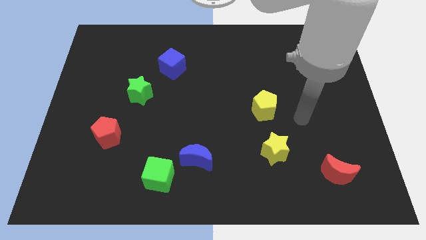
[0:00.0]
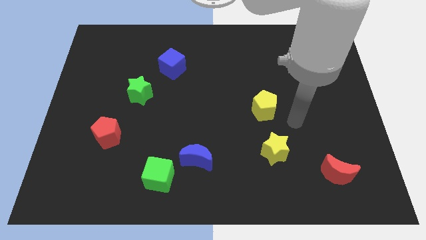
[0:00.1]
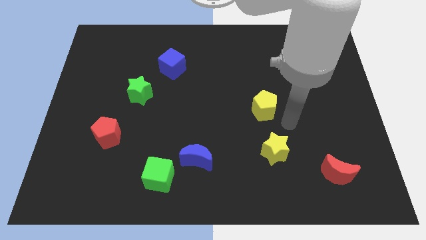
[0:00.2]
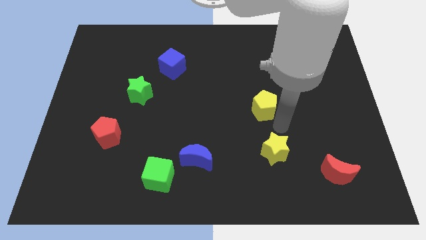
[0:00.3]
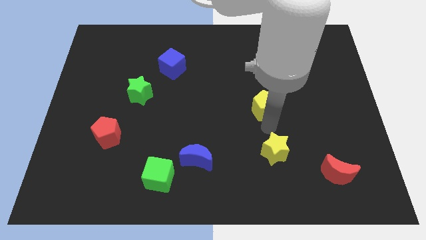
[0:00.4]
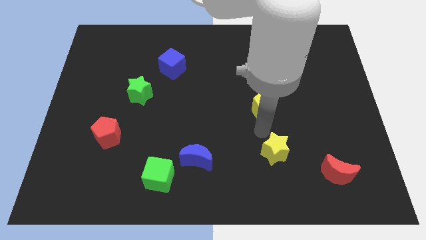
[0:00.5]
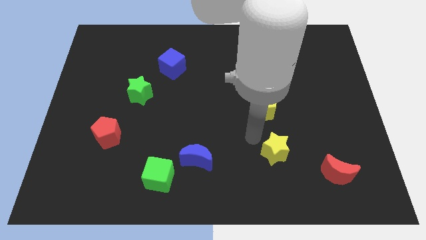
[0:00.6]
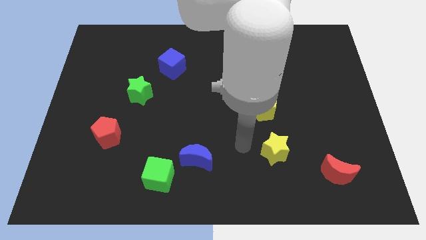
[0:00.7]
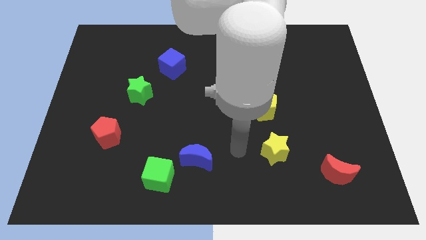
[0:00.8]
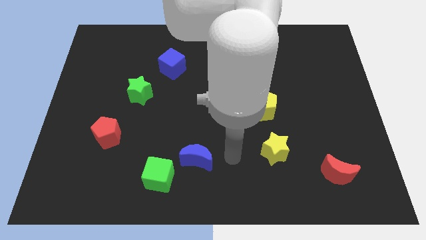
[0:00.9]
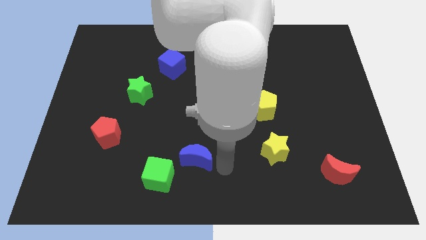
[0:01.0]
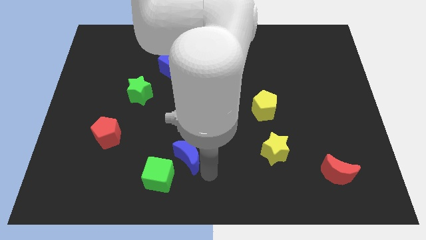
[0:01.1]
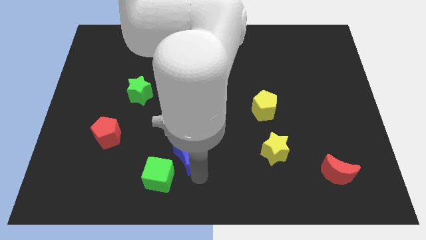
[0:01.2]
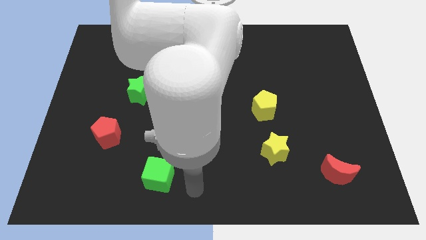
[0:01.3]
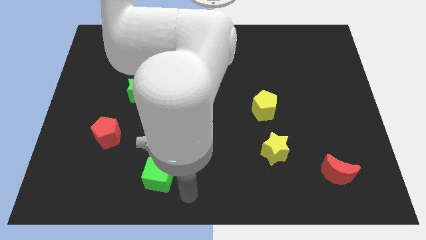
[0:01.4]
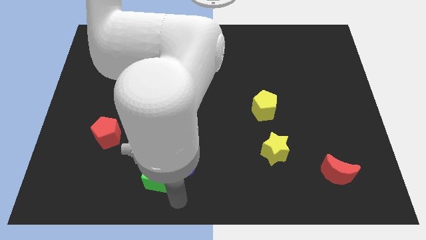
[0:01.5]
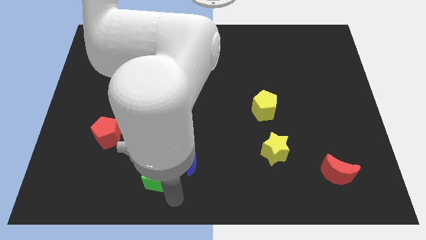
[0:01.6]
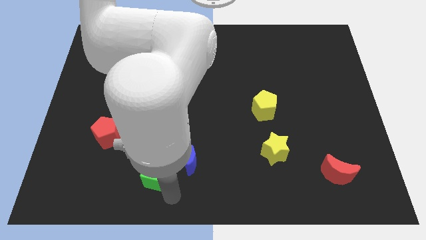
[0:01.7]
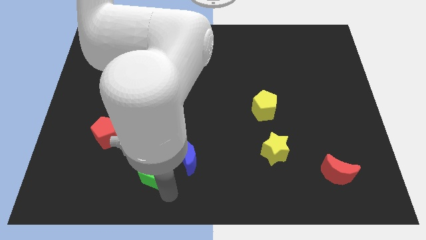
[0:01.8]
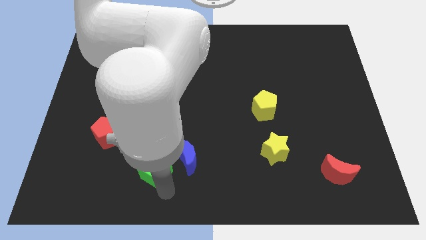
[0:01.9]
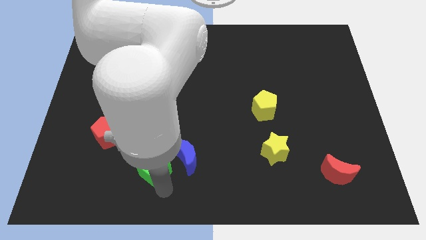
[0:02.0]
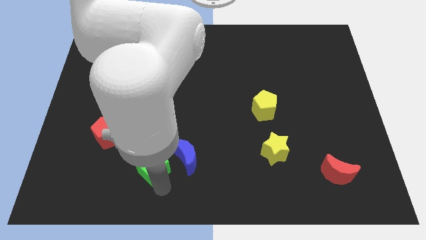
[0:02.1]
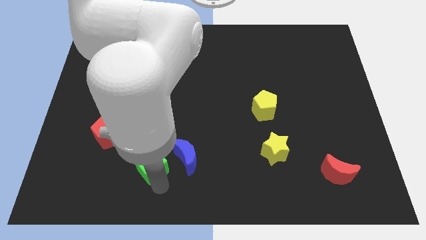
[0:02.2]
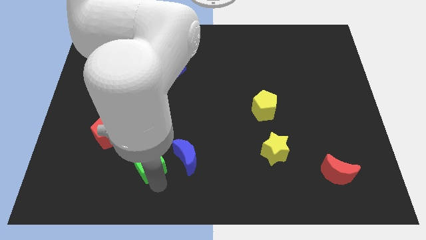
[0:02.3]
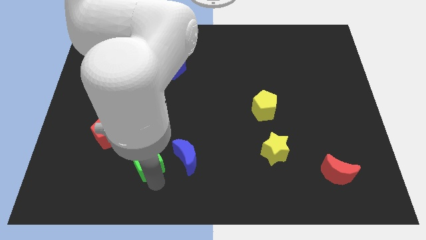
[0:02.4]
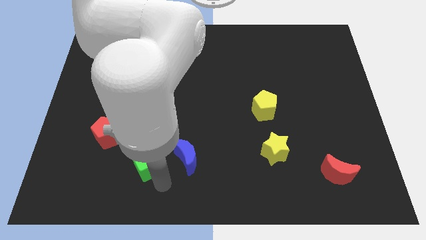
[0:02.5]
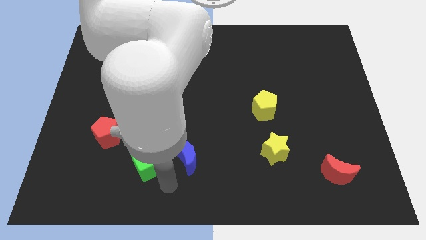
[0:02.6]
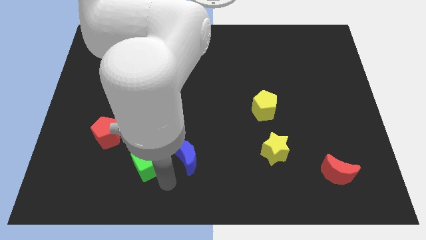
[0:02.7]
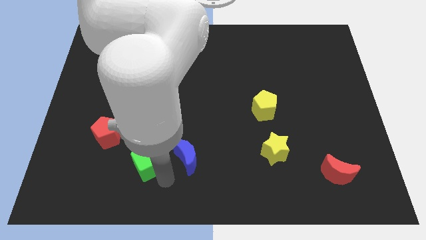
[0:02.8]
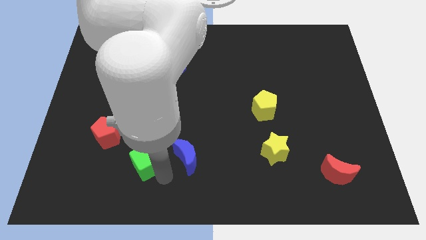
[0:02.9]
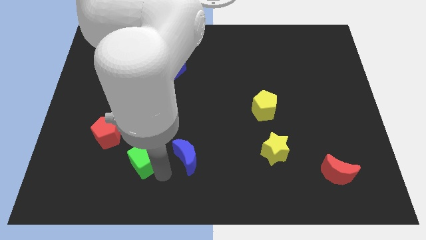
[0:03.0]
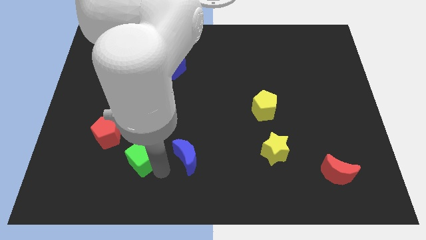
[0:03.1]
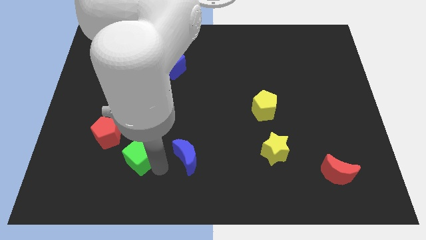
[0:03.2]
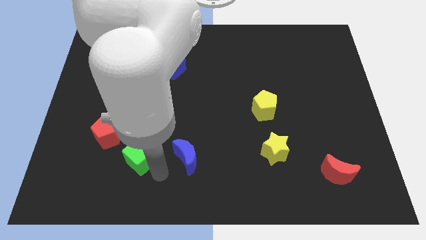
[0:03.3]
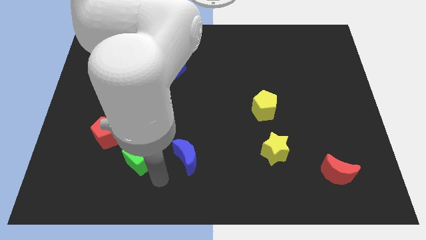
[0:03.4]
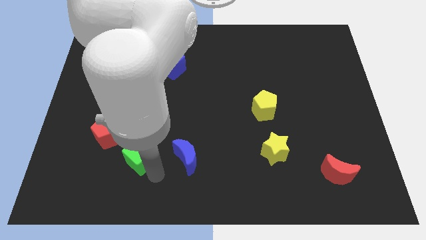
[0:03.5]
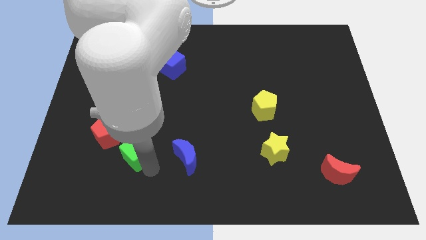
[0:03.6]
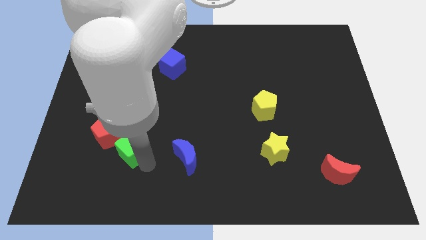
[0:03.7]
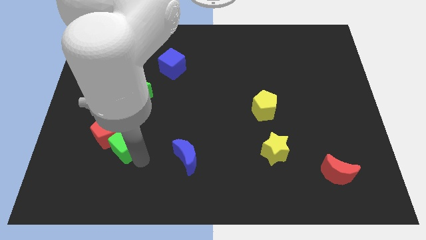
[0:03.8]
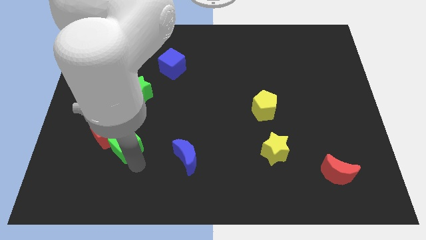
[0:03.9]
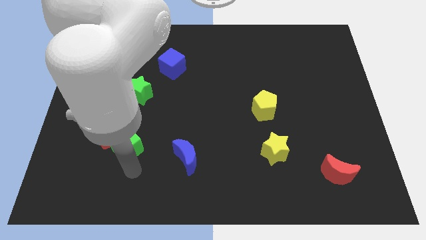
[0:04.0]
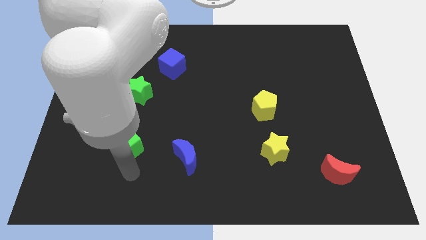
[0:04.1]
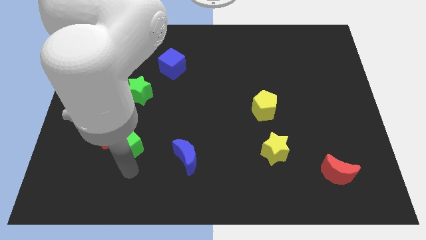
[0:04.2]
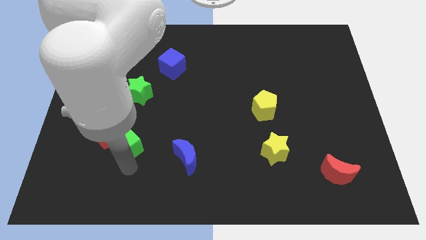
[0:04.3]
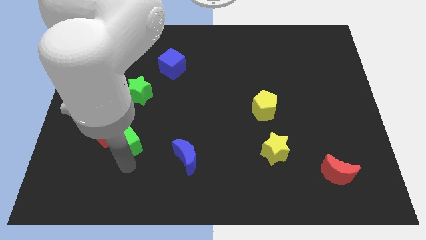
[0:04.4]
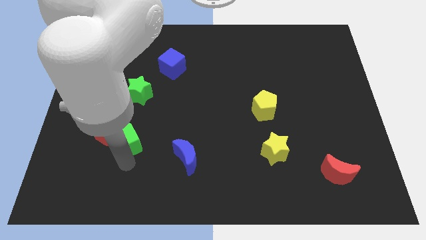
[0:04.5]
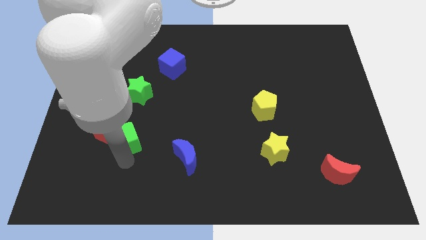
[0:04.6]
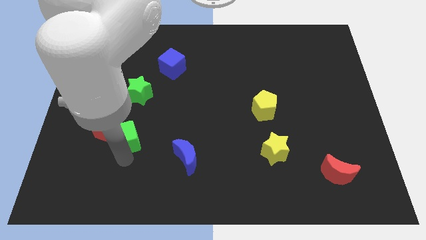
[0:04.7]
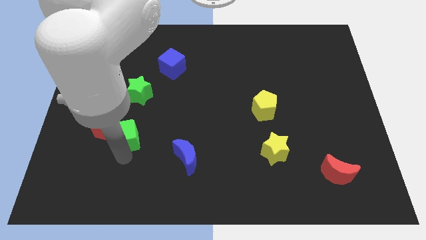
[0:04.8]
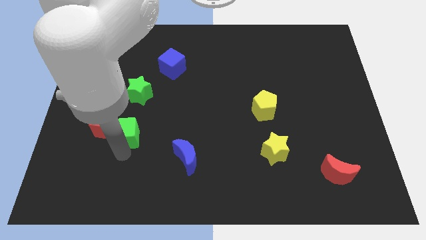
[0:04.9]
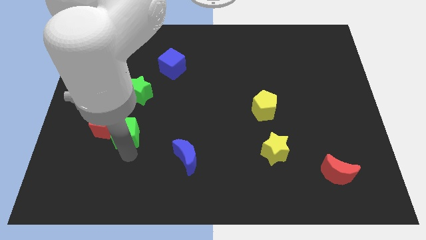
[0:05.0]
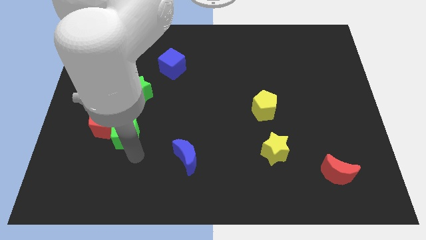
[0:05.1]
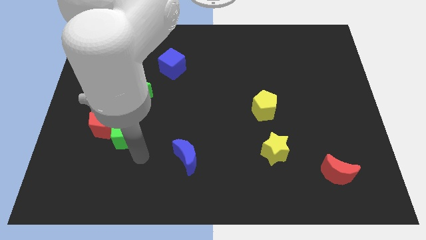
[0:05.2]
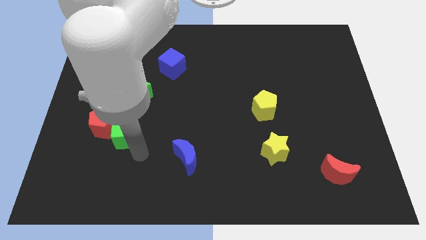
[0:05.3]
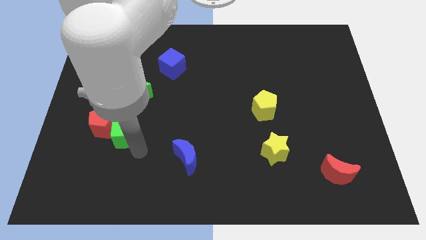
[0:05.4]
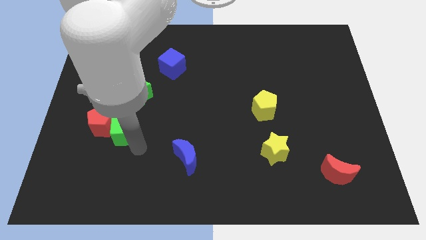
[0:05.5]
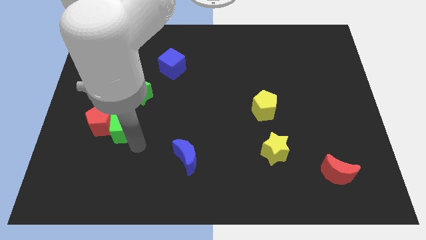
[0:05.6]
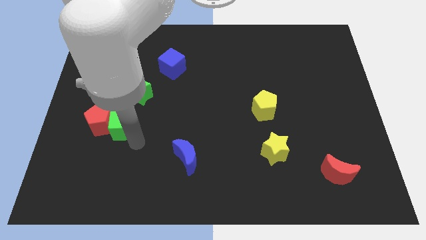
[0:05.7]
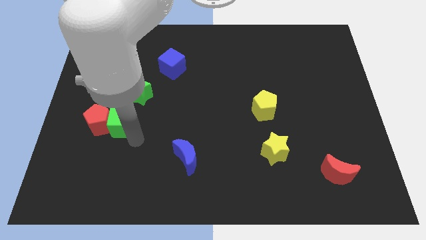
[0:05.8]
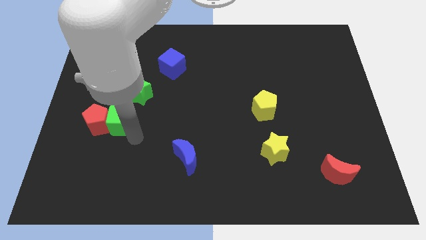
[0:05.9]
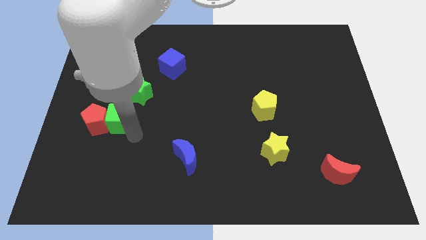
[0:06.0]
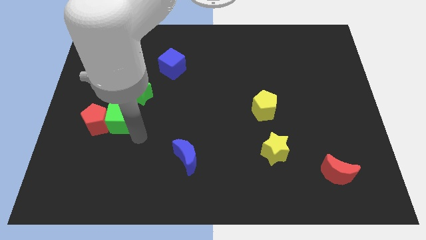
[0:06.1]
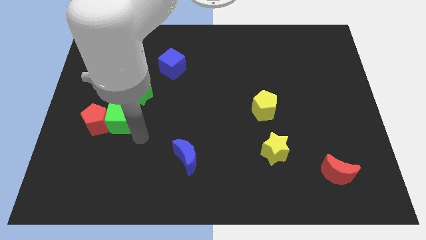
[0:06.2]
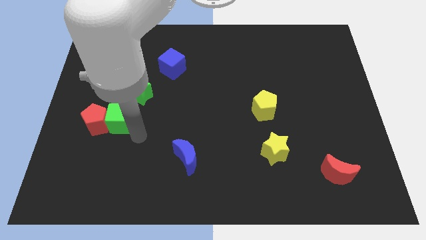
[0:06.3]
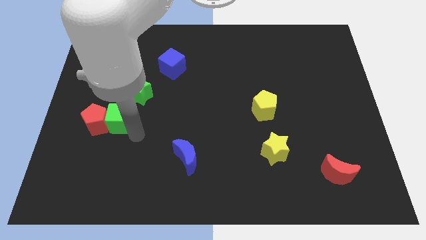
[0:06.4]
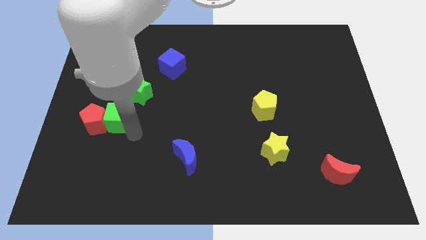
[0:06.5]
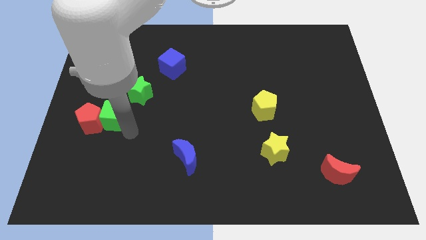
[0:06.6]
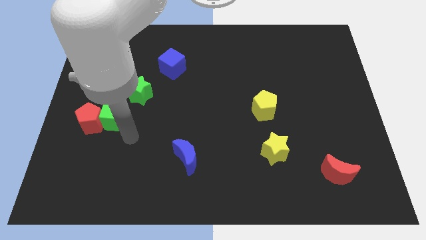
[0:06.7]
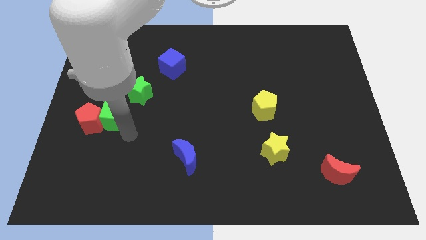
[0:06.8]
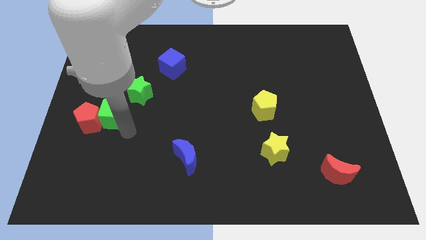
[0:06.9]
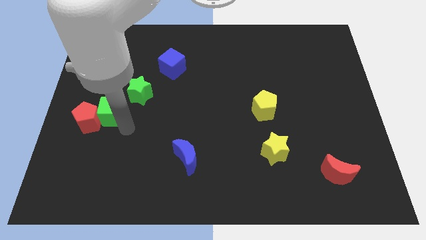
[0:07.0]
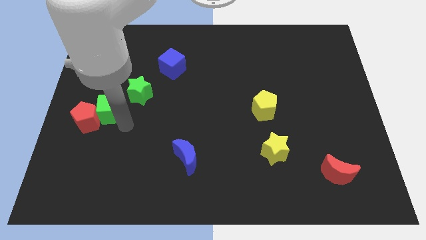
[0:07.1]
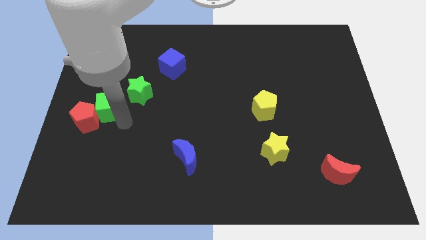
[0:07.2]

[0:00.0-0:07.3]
move the green cube left of the green star

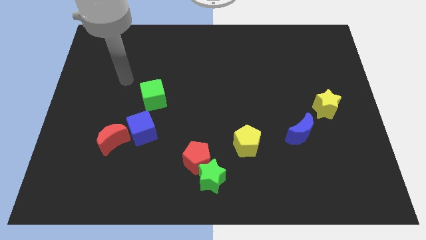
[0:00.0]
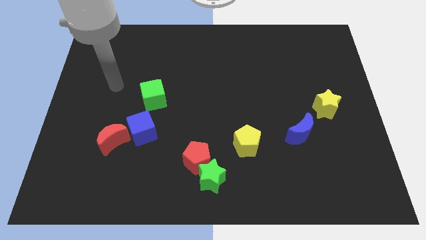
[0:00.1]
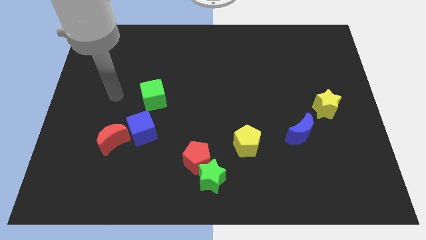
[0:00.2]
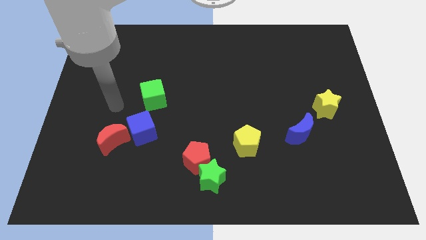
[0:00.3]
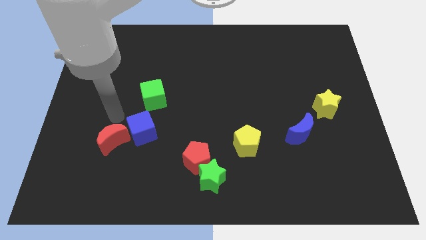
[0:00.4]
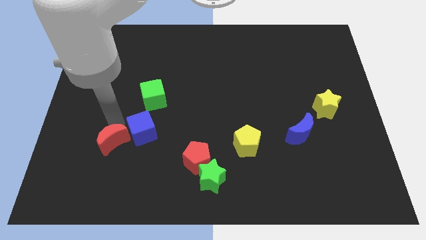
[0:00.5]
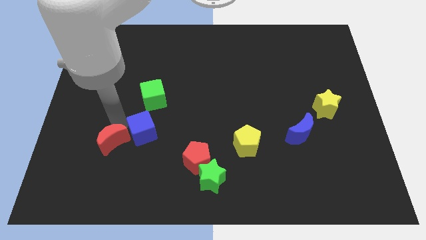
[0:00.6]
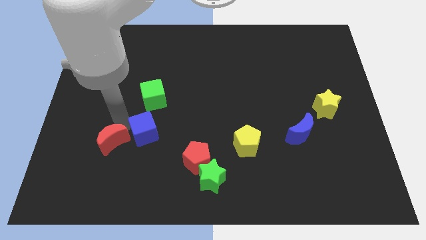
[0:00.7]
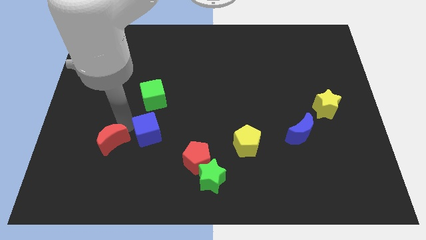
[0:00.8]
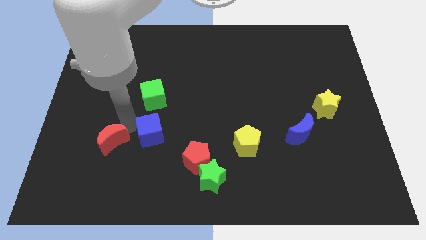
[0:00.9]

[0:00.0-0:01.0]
slide the blue cube diagonally up and to the left of the red pentagon
